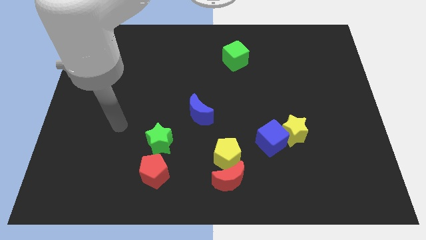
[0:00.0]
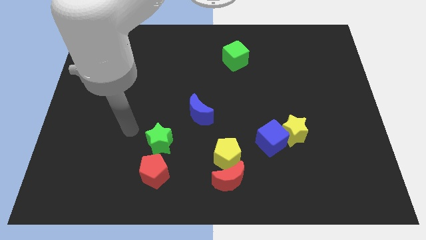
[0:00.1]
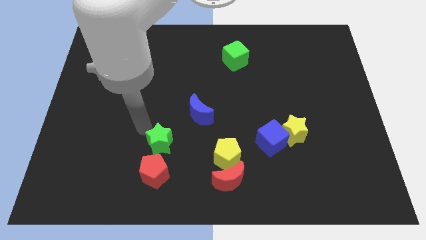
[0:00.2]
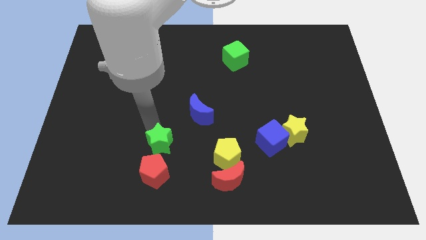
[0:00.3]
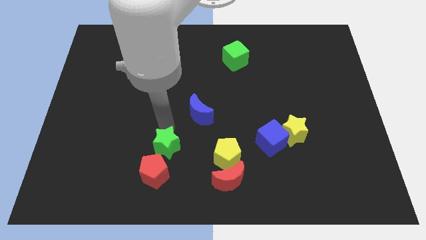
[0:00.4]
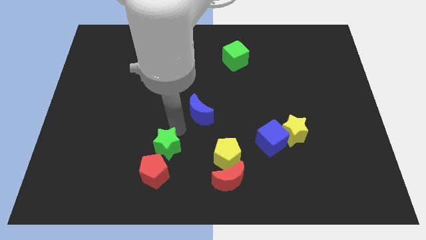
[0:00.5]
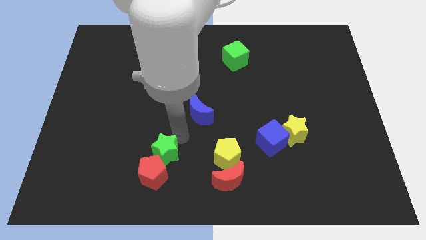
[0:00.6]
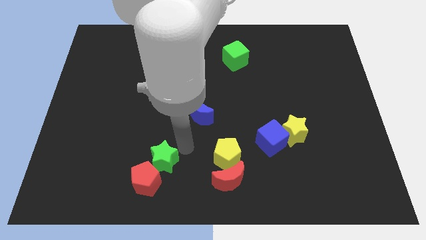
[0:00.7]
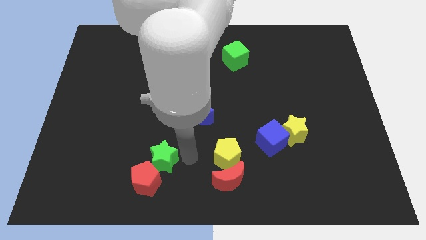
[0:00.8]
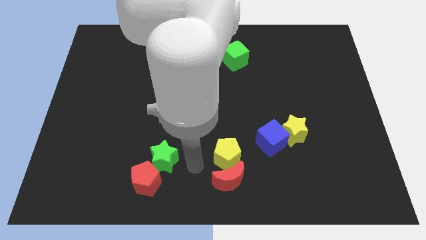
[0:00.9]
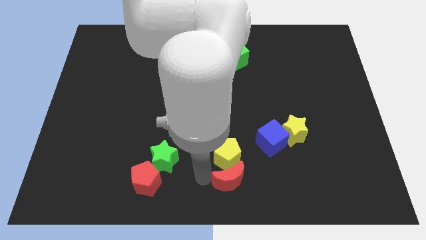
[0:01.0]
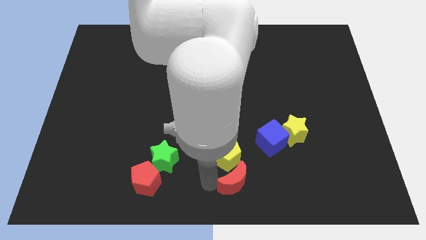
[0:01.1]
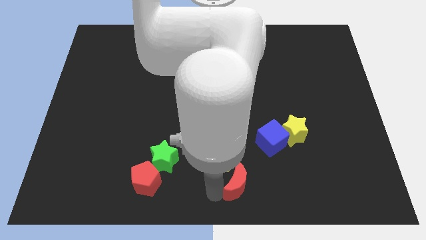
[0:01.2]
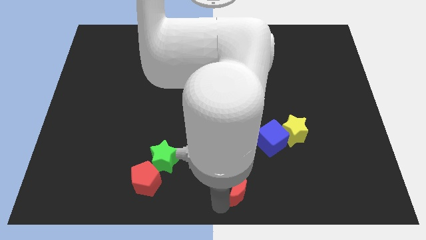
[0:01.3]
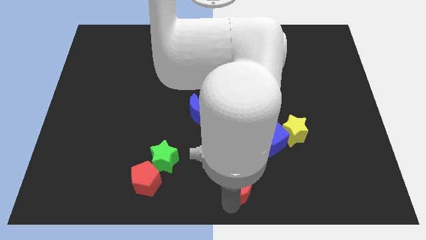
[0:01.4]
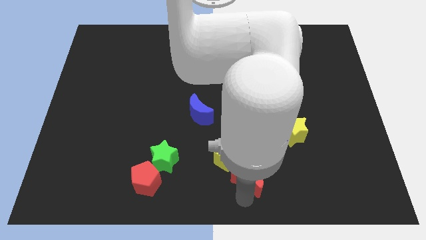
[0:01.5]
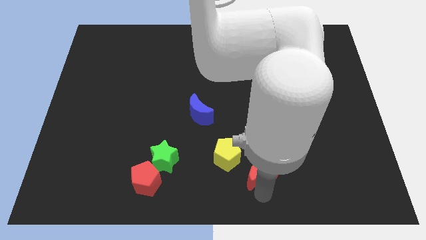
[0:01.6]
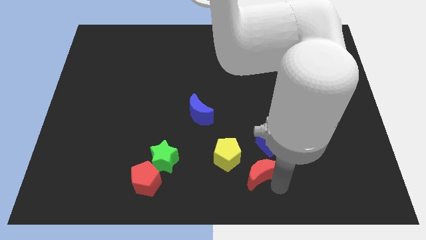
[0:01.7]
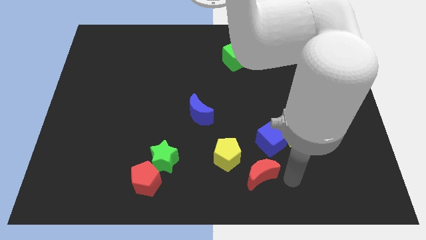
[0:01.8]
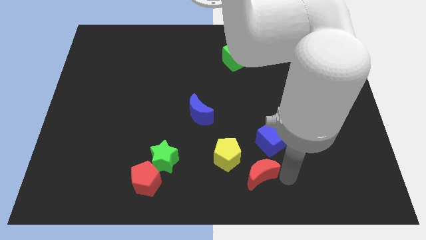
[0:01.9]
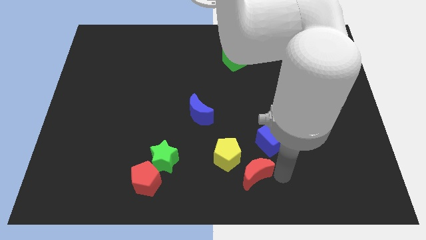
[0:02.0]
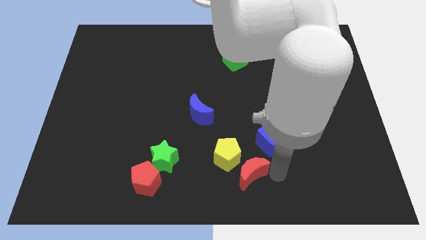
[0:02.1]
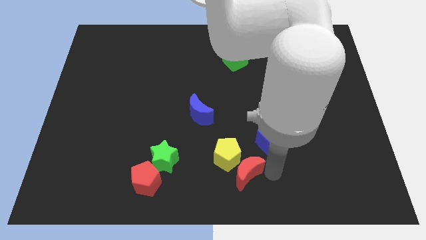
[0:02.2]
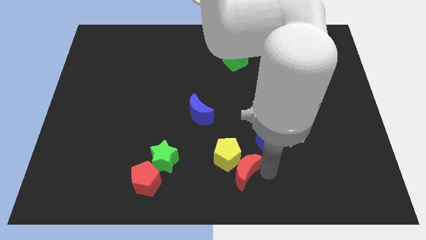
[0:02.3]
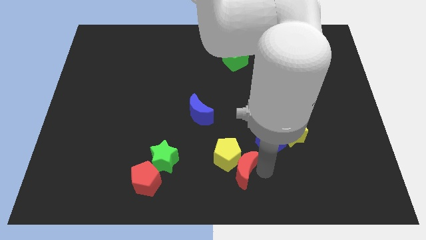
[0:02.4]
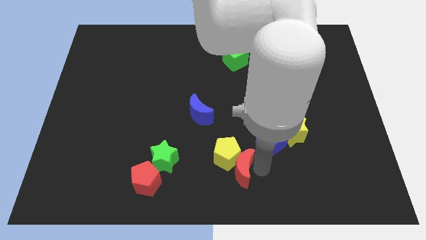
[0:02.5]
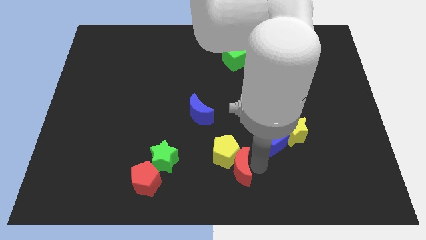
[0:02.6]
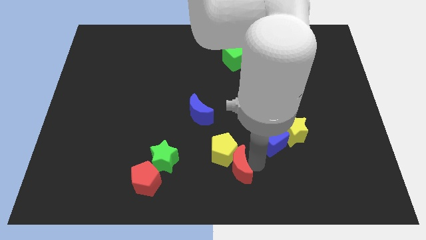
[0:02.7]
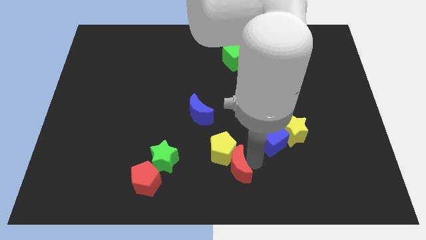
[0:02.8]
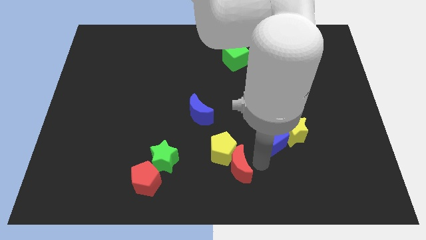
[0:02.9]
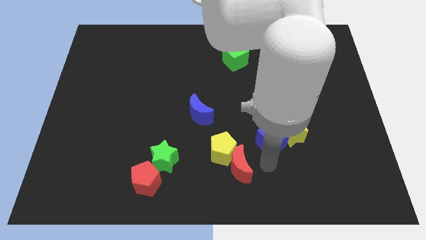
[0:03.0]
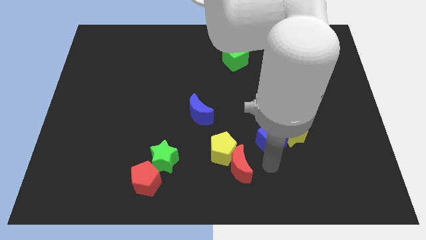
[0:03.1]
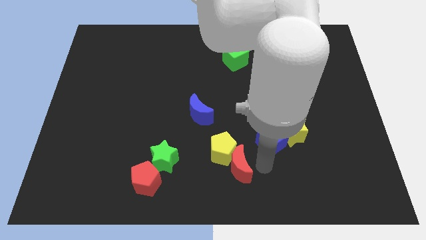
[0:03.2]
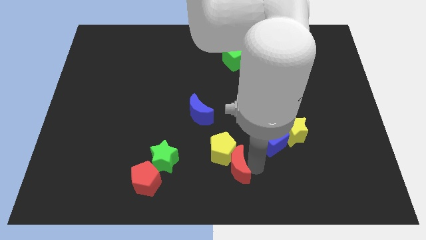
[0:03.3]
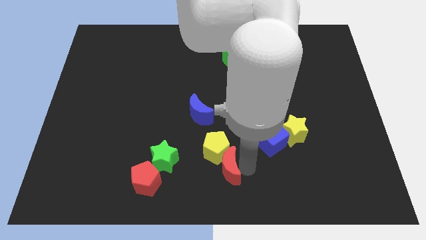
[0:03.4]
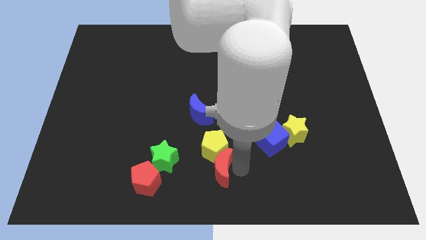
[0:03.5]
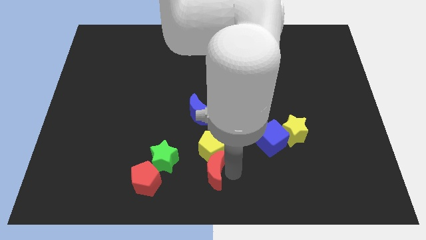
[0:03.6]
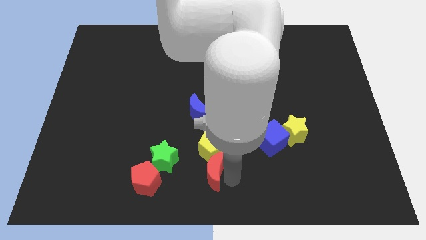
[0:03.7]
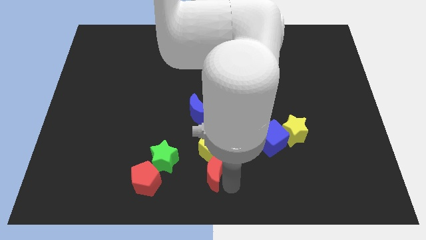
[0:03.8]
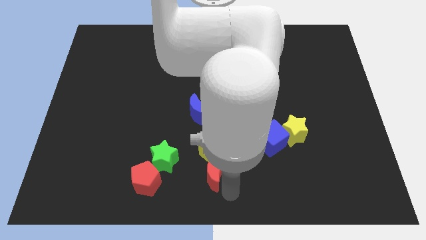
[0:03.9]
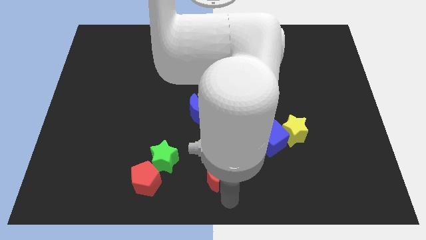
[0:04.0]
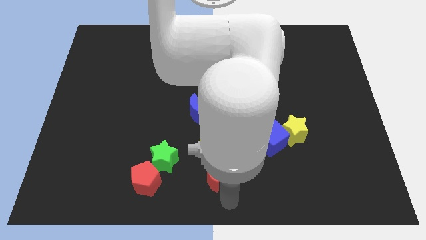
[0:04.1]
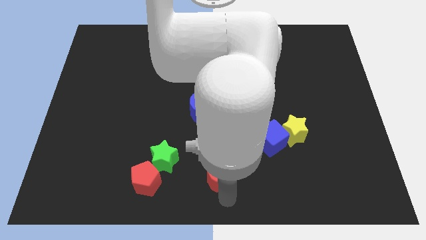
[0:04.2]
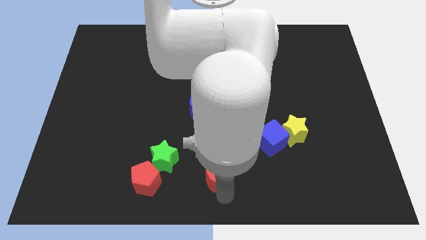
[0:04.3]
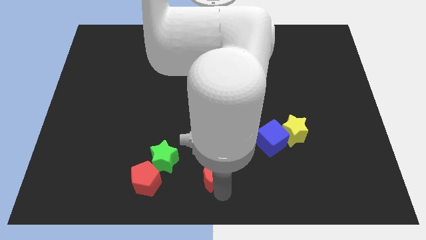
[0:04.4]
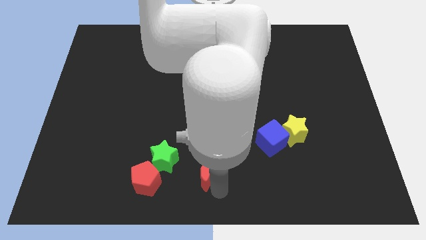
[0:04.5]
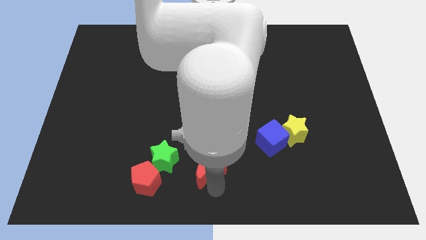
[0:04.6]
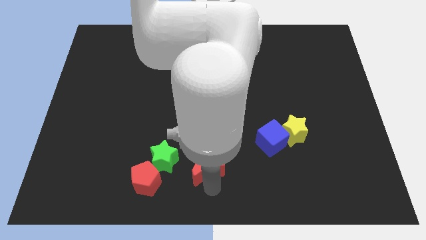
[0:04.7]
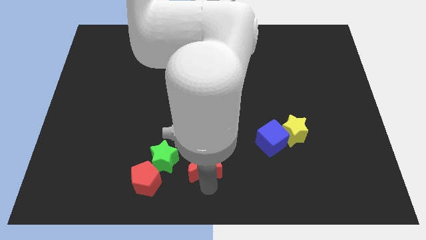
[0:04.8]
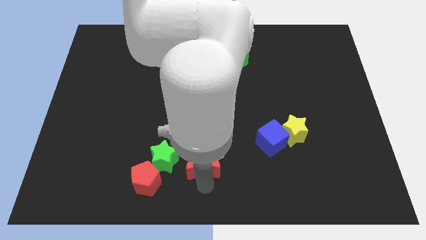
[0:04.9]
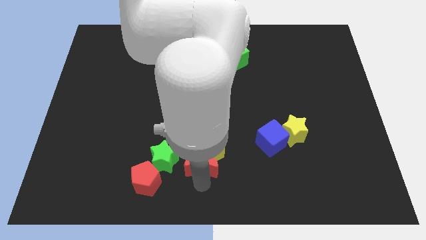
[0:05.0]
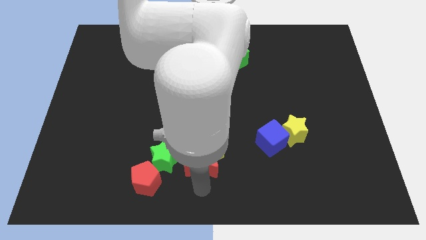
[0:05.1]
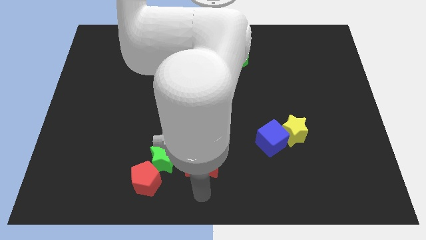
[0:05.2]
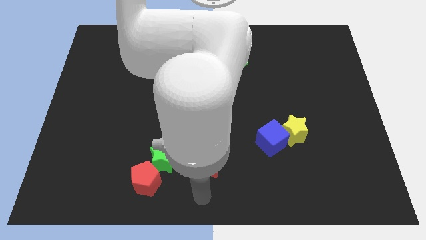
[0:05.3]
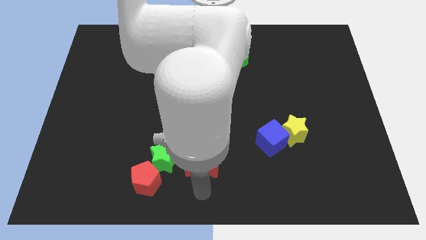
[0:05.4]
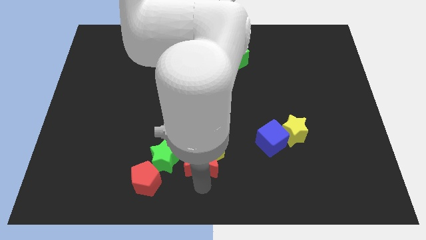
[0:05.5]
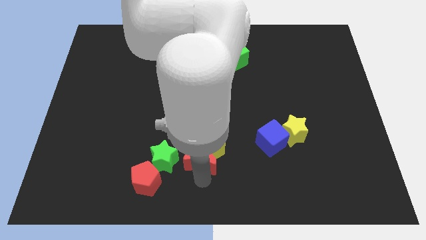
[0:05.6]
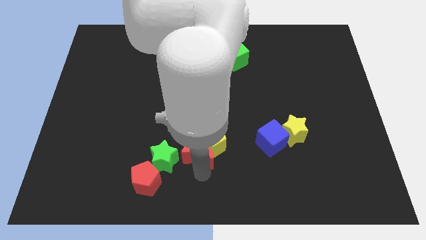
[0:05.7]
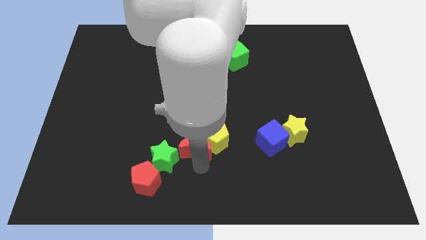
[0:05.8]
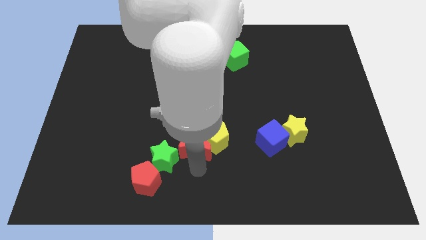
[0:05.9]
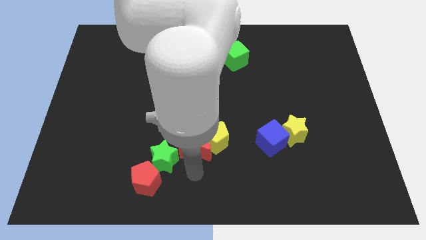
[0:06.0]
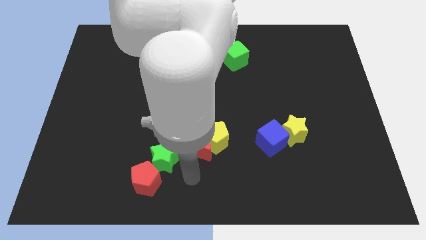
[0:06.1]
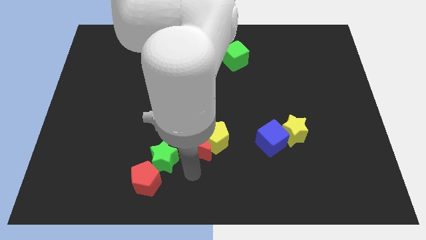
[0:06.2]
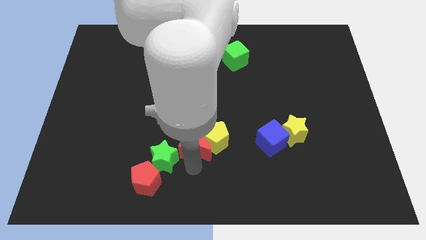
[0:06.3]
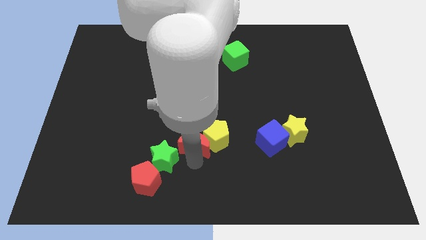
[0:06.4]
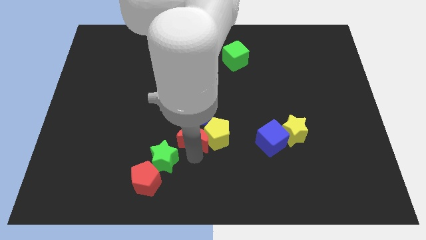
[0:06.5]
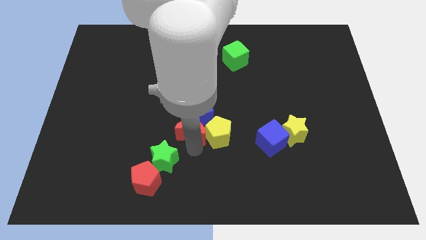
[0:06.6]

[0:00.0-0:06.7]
slide the red moon to the blue moon

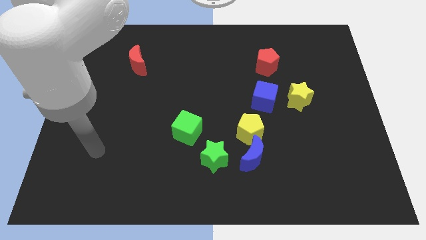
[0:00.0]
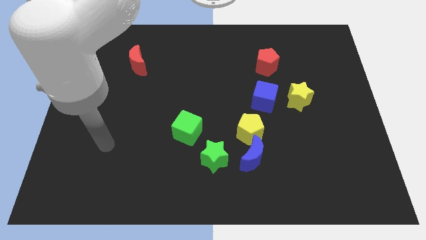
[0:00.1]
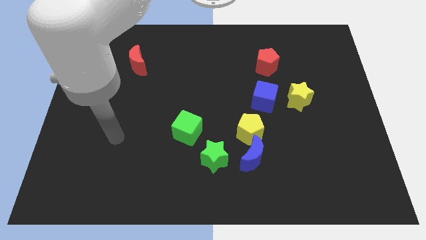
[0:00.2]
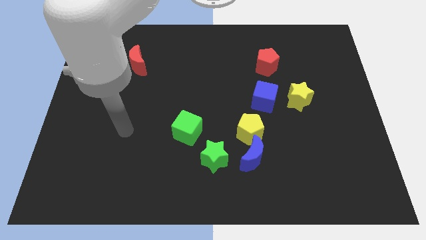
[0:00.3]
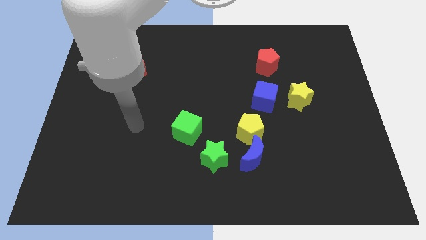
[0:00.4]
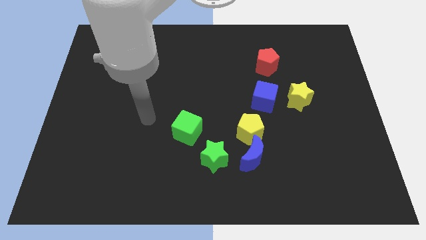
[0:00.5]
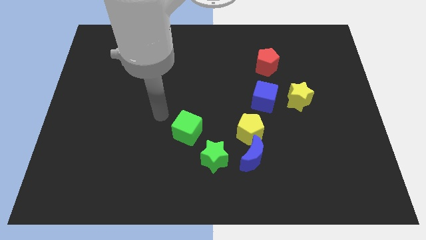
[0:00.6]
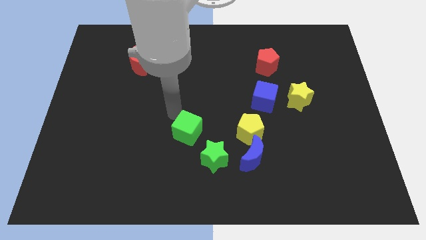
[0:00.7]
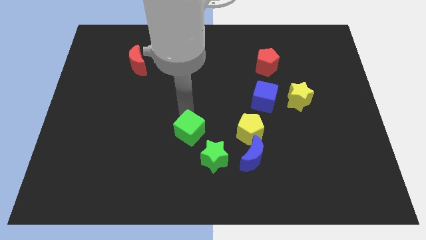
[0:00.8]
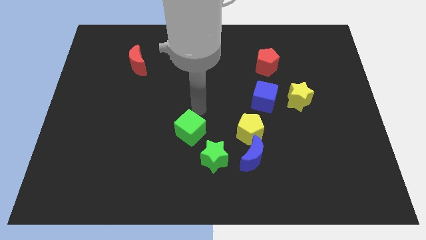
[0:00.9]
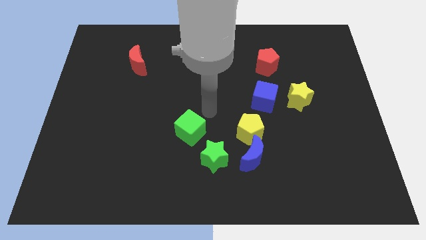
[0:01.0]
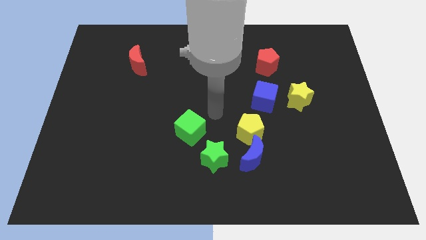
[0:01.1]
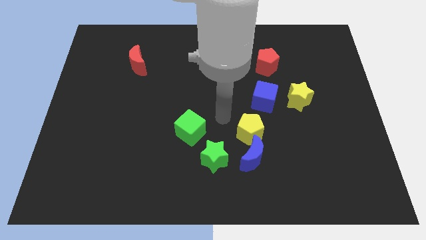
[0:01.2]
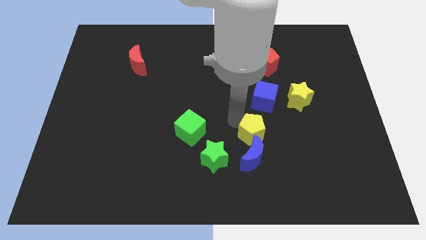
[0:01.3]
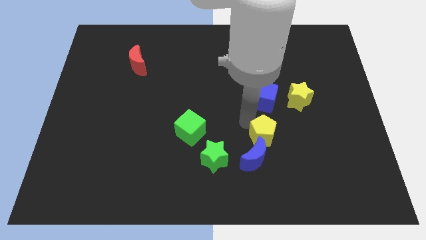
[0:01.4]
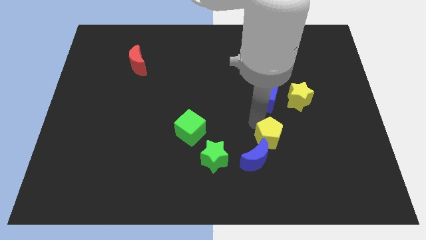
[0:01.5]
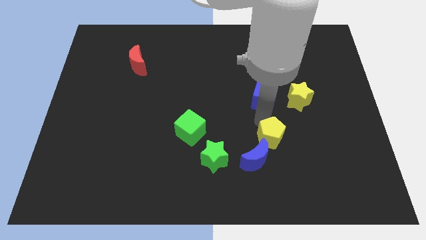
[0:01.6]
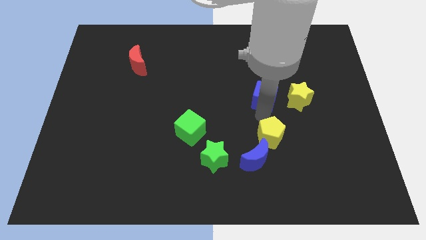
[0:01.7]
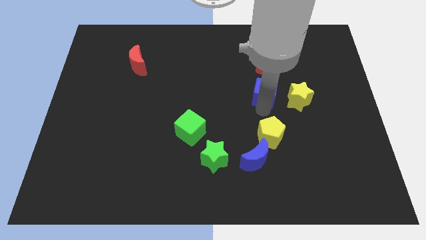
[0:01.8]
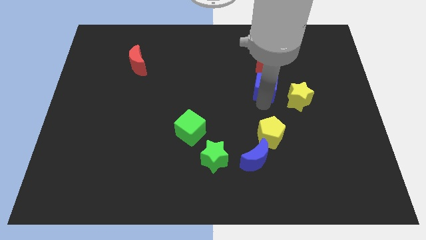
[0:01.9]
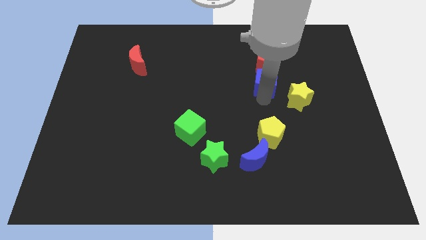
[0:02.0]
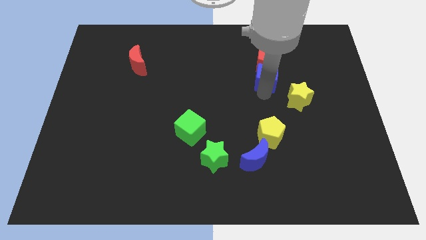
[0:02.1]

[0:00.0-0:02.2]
push the blue cube close to the red pentagon
